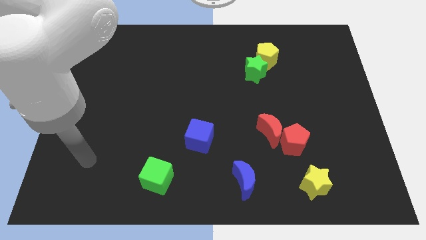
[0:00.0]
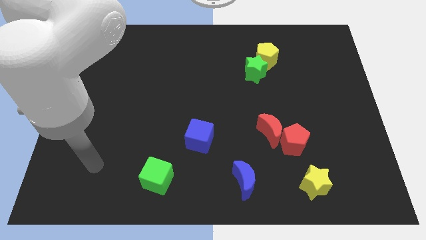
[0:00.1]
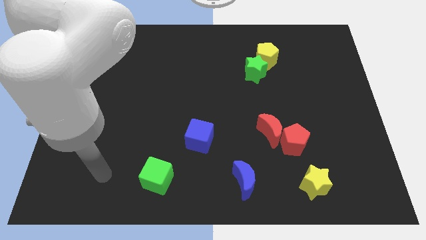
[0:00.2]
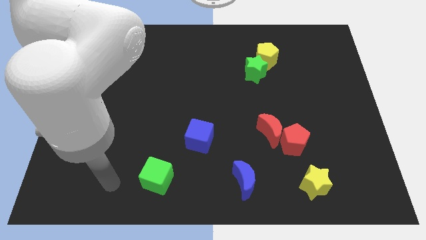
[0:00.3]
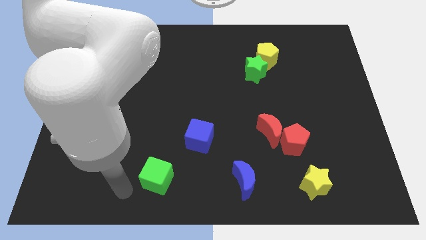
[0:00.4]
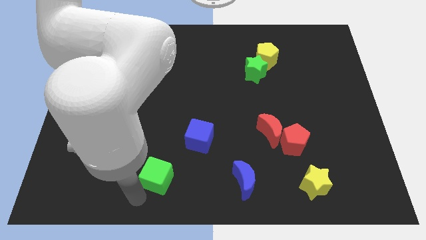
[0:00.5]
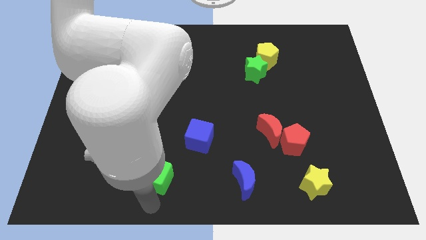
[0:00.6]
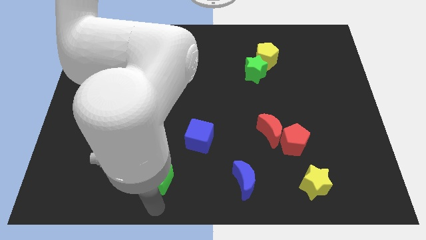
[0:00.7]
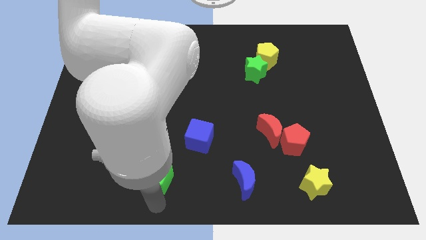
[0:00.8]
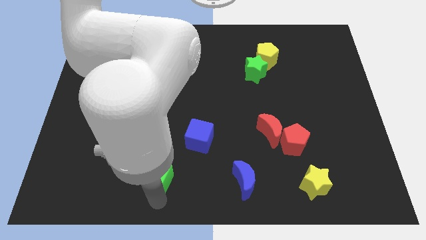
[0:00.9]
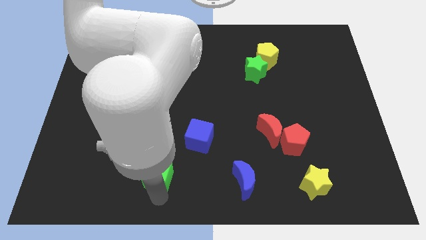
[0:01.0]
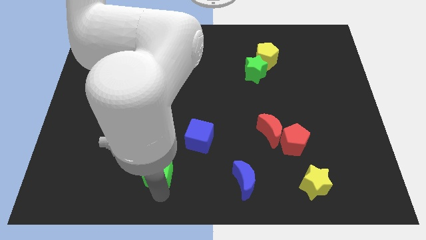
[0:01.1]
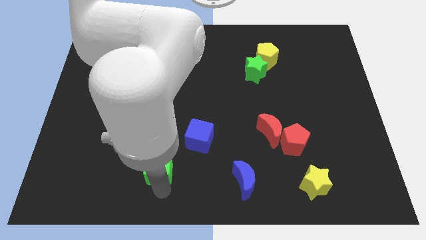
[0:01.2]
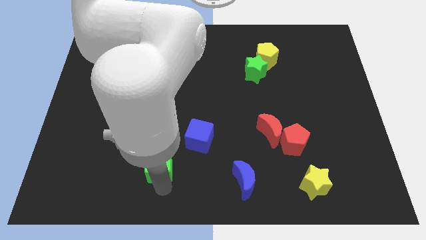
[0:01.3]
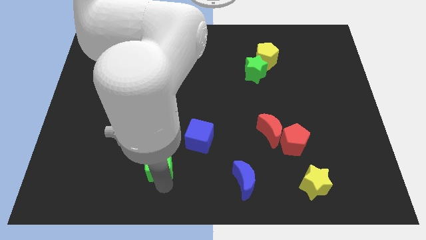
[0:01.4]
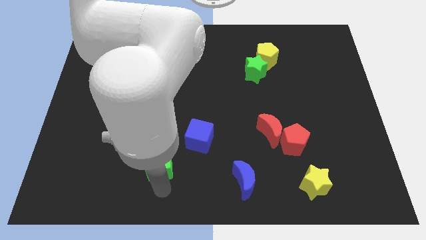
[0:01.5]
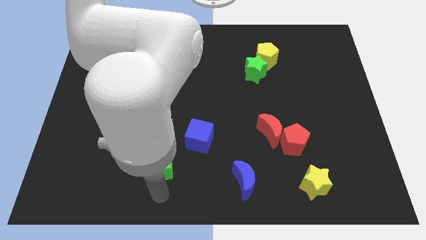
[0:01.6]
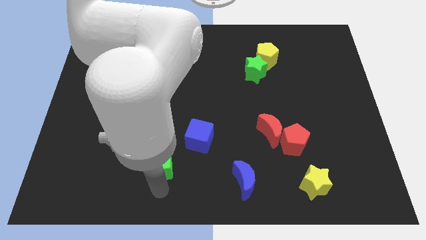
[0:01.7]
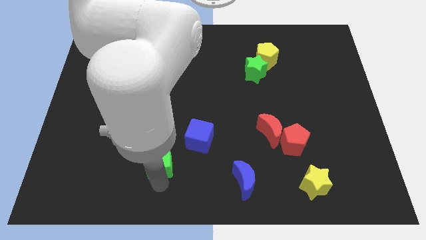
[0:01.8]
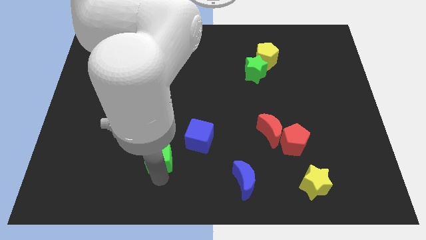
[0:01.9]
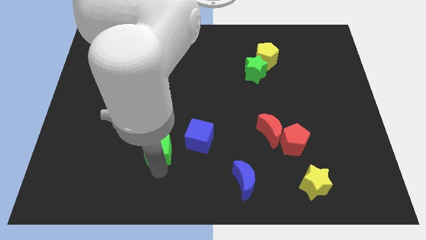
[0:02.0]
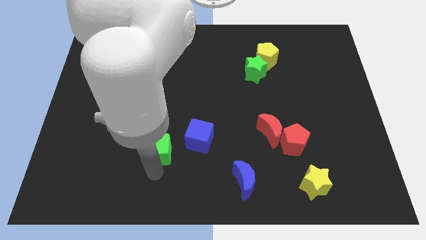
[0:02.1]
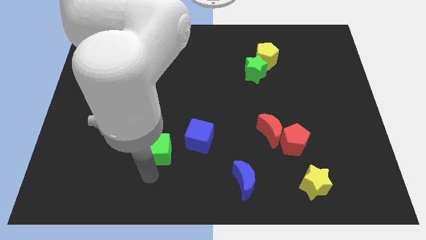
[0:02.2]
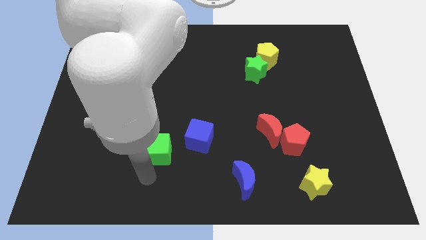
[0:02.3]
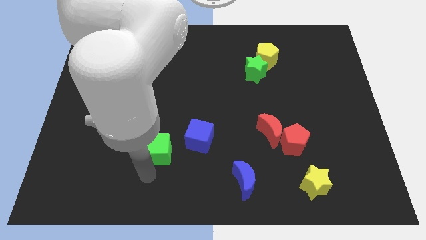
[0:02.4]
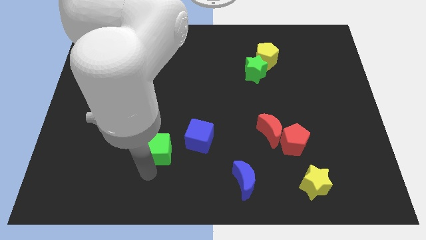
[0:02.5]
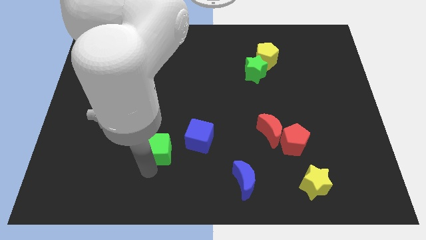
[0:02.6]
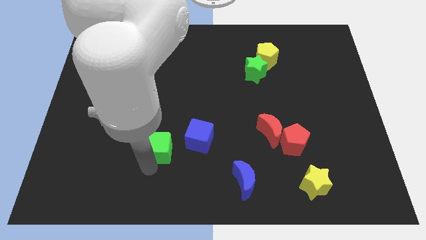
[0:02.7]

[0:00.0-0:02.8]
slide the green cube upwards a little

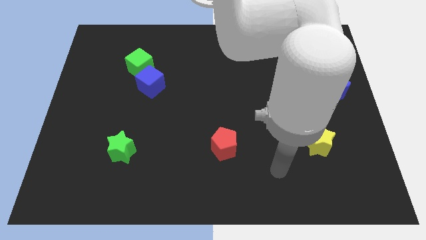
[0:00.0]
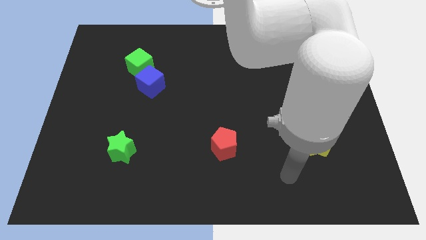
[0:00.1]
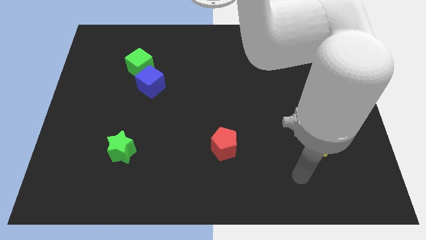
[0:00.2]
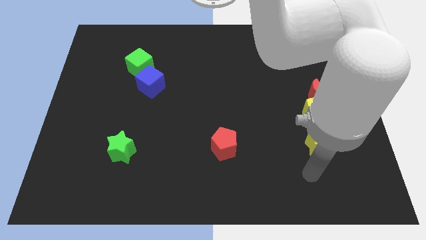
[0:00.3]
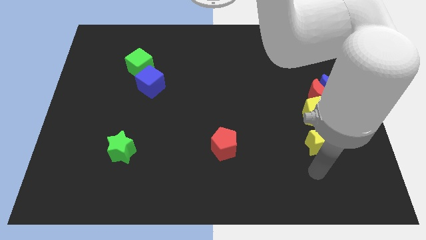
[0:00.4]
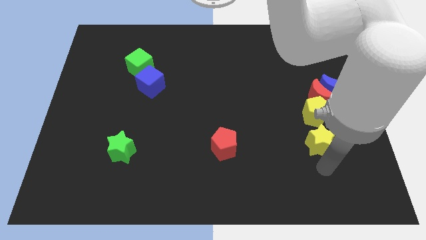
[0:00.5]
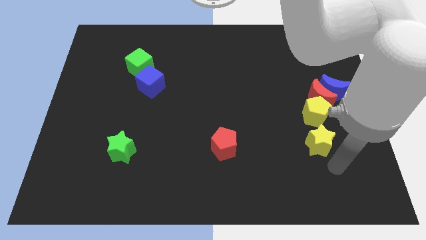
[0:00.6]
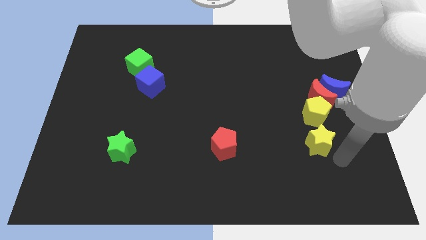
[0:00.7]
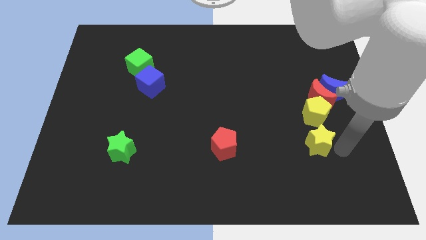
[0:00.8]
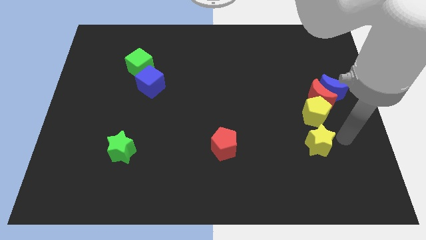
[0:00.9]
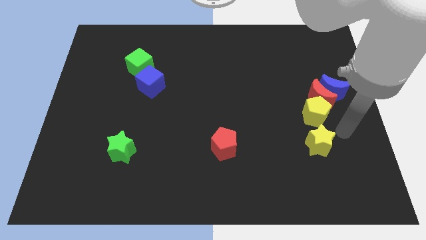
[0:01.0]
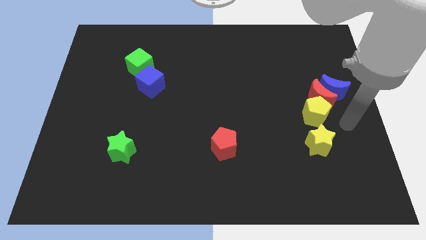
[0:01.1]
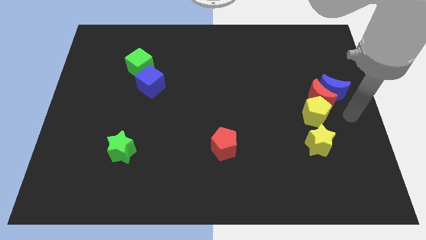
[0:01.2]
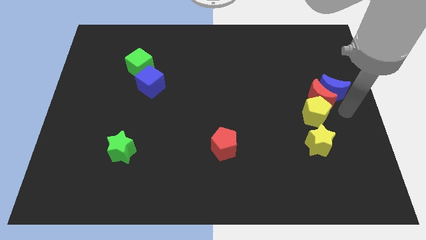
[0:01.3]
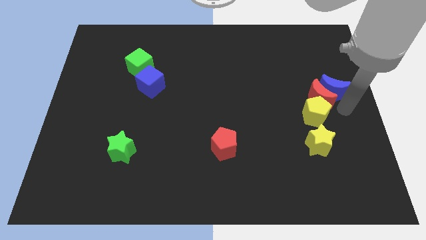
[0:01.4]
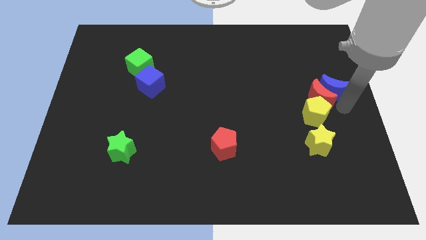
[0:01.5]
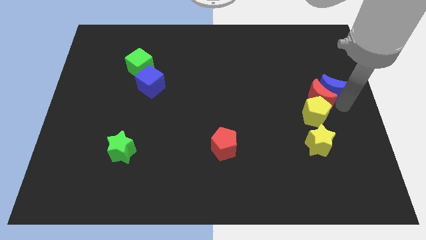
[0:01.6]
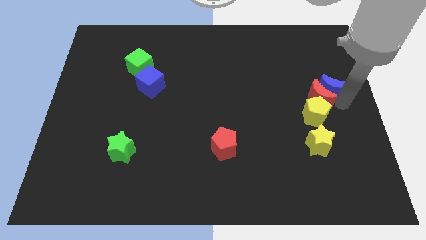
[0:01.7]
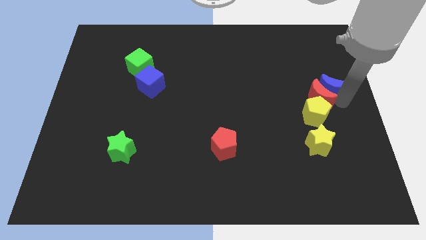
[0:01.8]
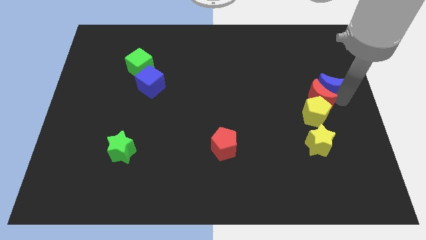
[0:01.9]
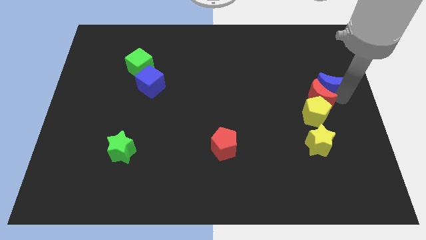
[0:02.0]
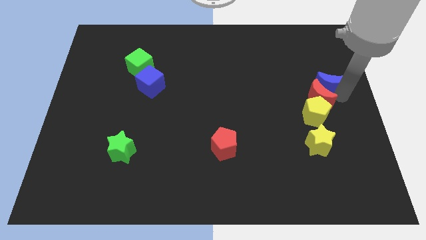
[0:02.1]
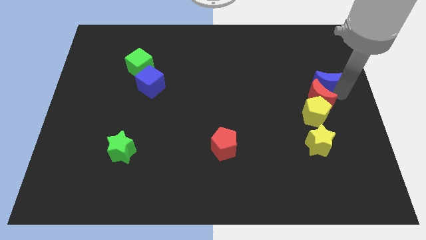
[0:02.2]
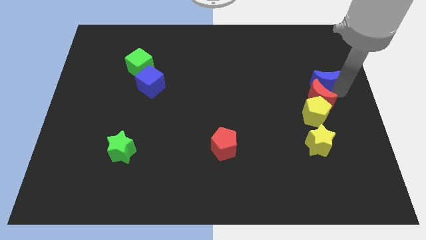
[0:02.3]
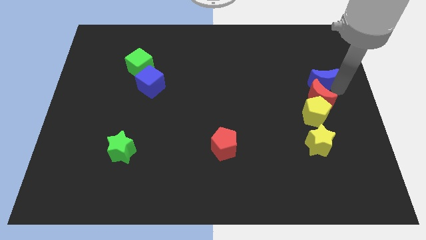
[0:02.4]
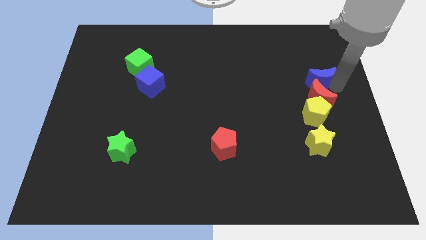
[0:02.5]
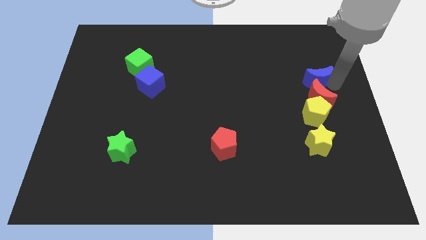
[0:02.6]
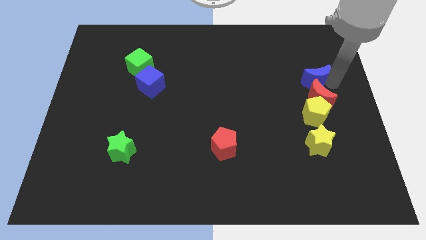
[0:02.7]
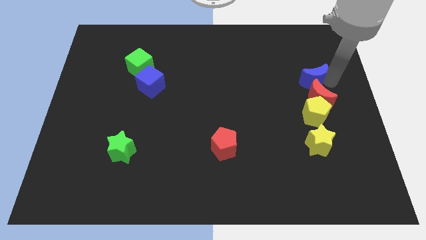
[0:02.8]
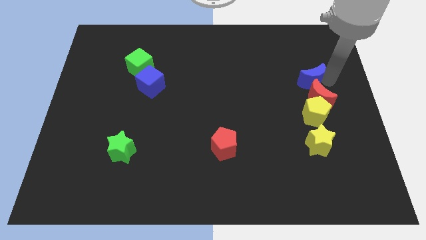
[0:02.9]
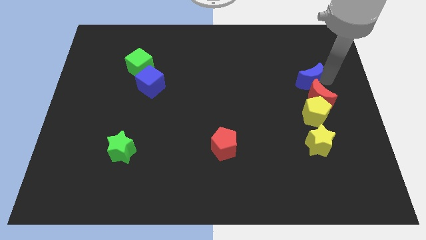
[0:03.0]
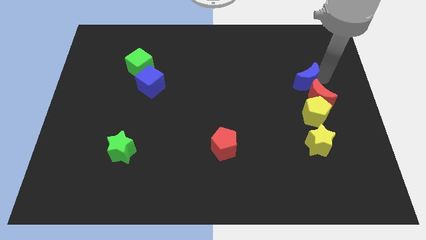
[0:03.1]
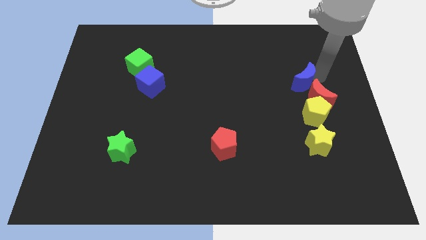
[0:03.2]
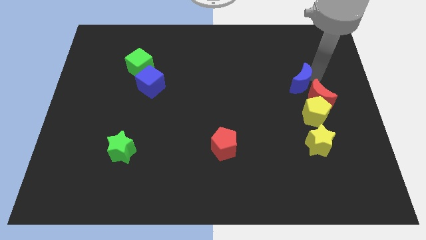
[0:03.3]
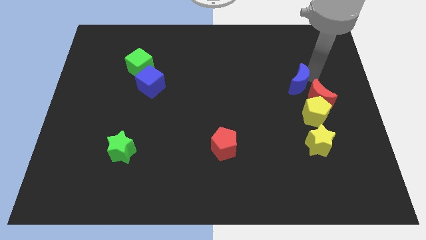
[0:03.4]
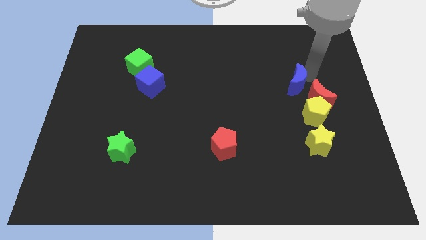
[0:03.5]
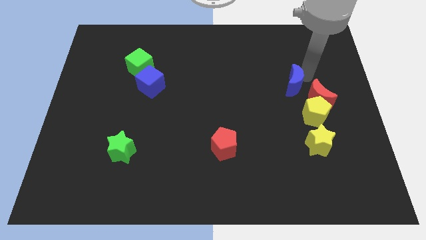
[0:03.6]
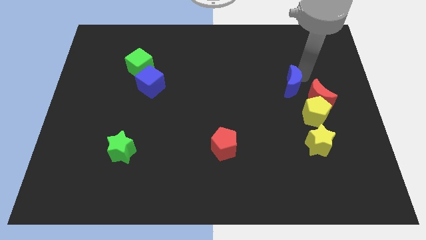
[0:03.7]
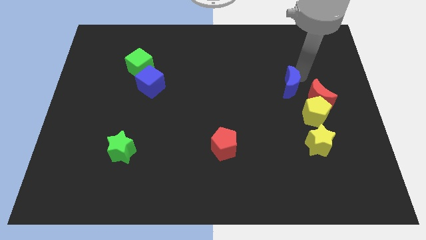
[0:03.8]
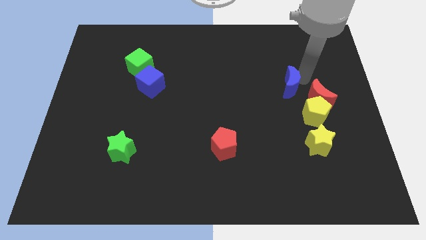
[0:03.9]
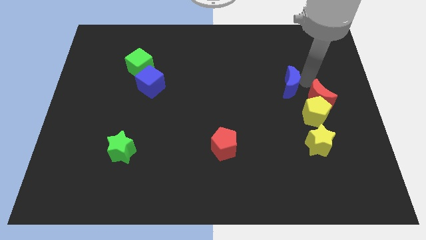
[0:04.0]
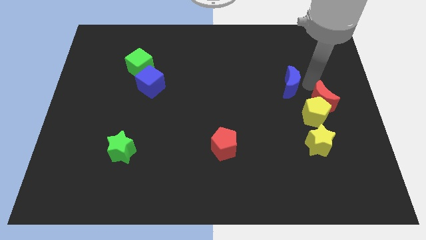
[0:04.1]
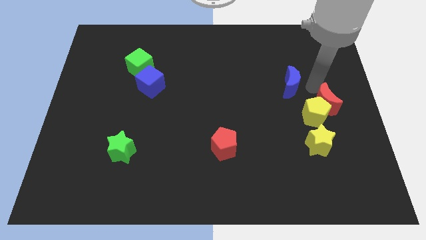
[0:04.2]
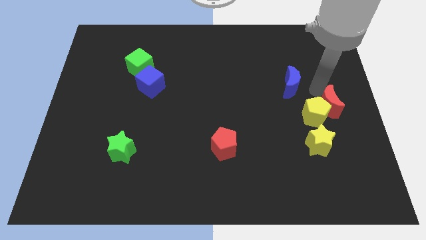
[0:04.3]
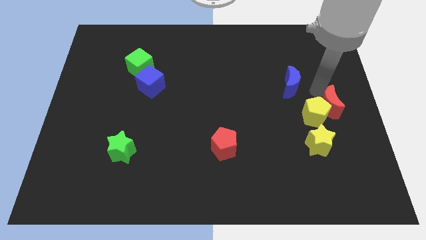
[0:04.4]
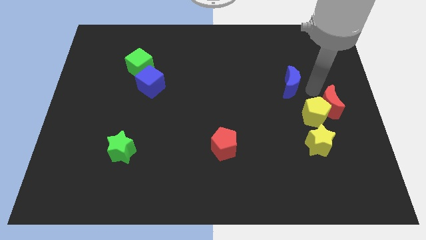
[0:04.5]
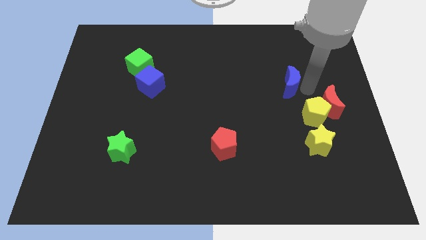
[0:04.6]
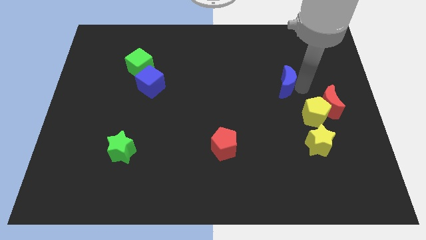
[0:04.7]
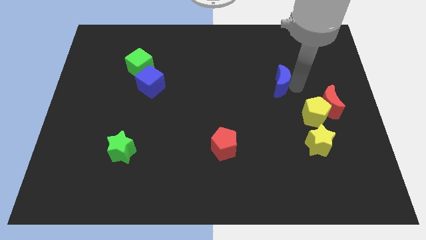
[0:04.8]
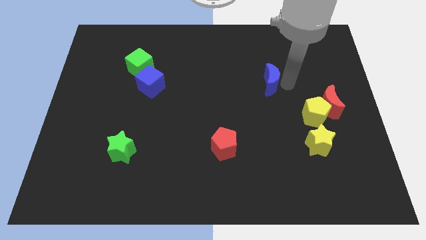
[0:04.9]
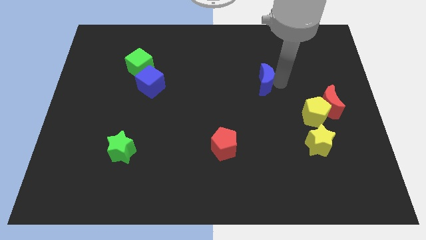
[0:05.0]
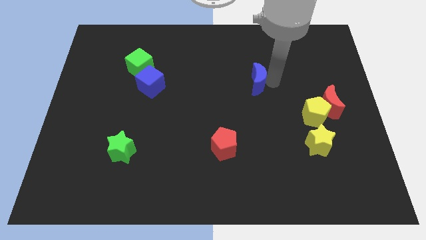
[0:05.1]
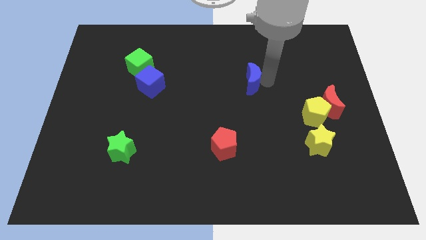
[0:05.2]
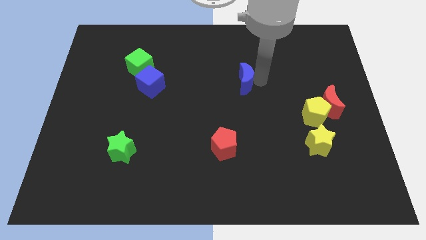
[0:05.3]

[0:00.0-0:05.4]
push the blue moon left
